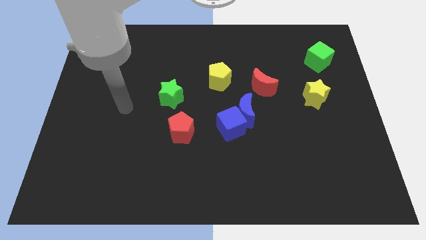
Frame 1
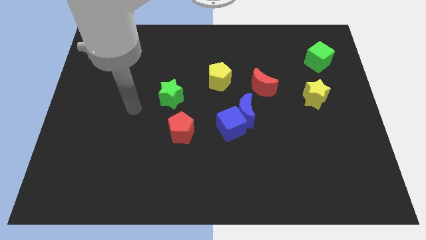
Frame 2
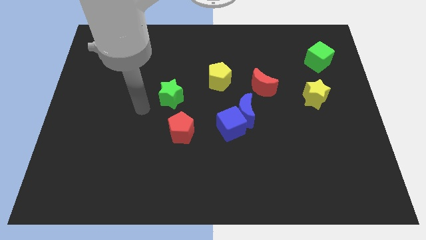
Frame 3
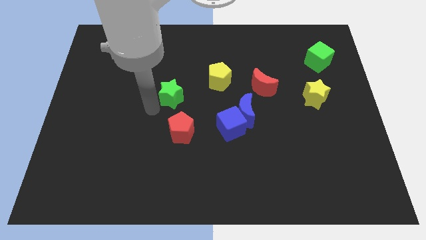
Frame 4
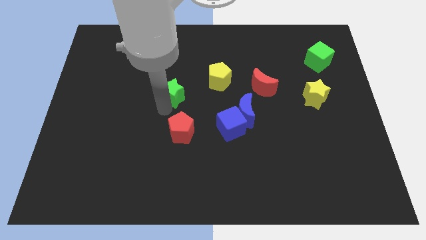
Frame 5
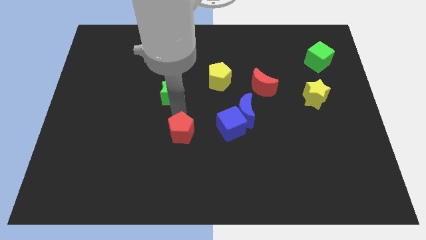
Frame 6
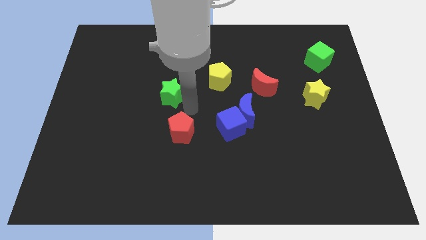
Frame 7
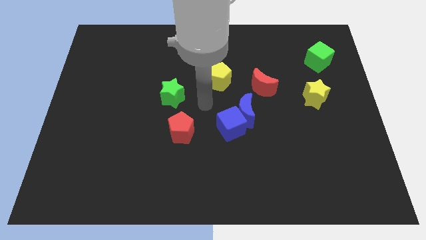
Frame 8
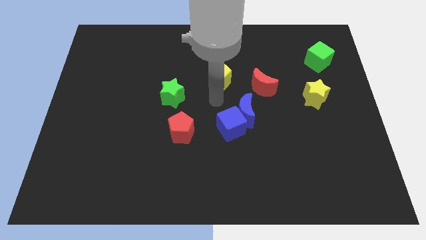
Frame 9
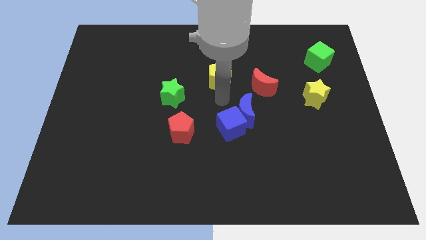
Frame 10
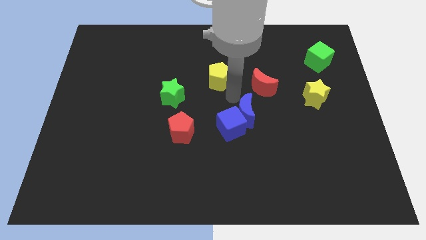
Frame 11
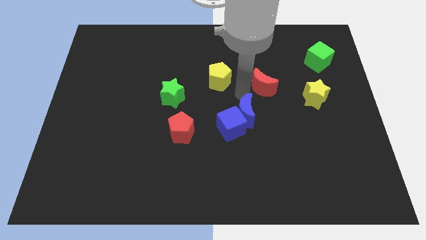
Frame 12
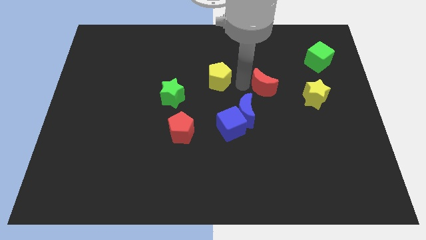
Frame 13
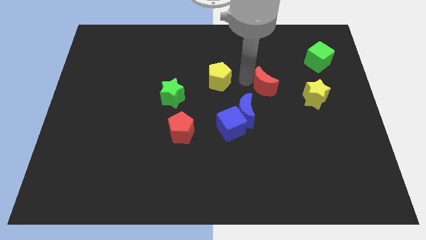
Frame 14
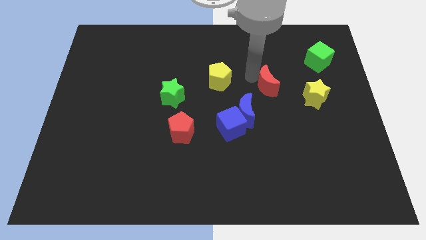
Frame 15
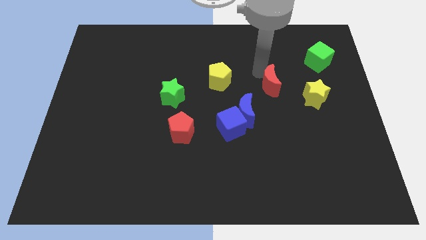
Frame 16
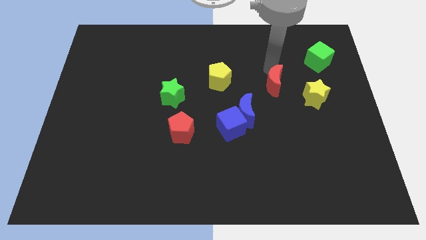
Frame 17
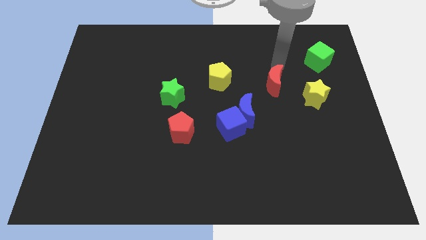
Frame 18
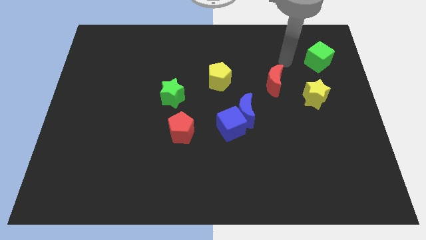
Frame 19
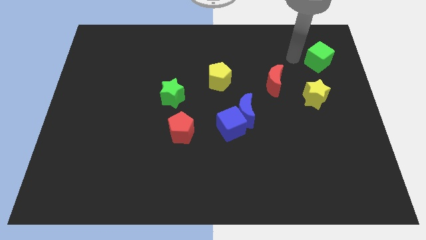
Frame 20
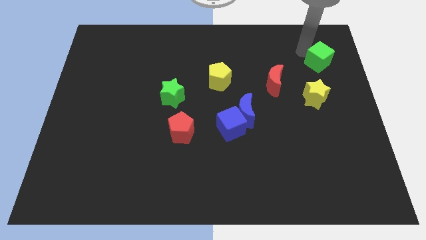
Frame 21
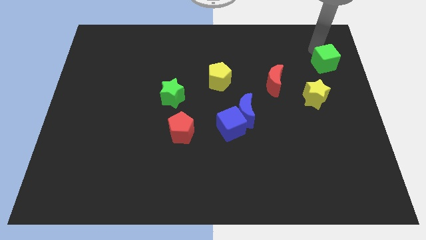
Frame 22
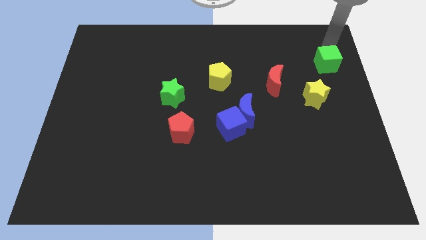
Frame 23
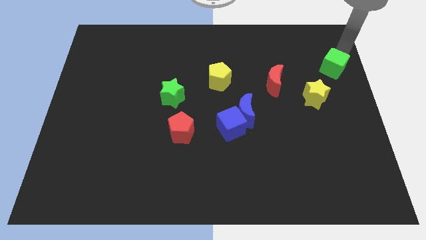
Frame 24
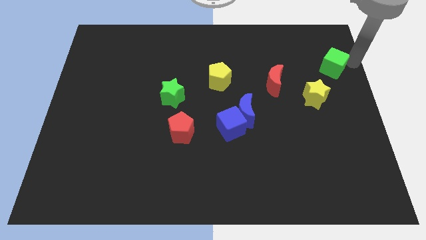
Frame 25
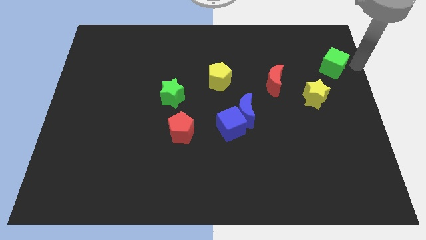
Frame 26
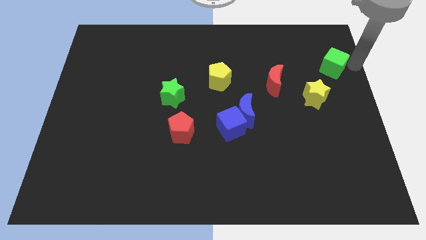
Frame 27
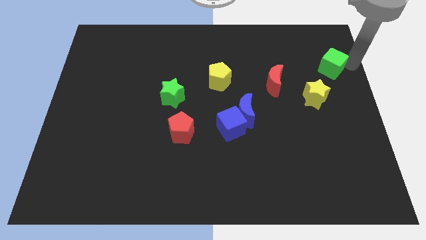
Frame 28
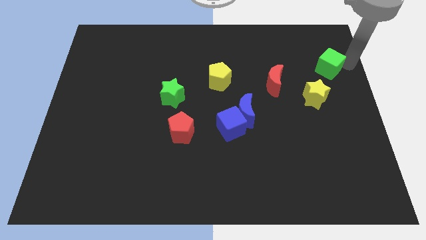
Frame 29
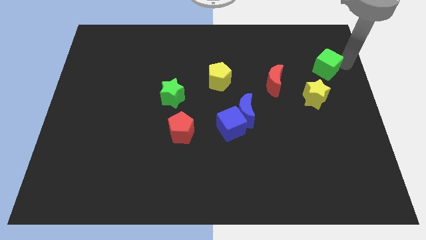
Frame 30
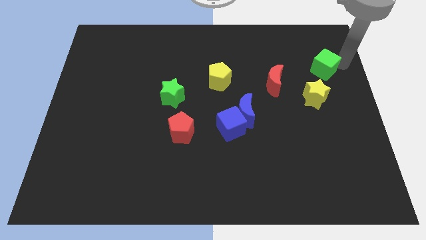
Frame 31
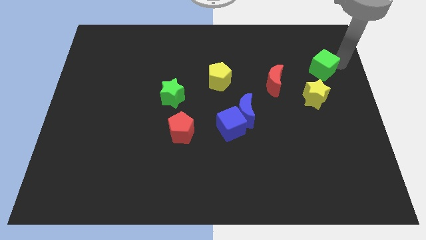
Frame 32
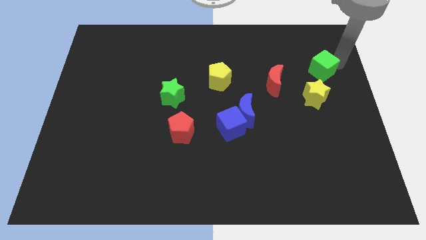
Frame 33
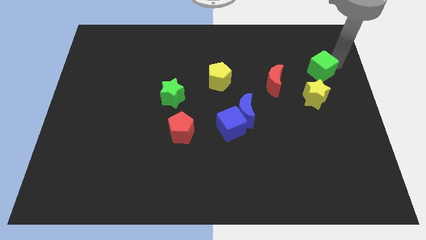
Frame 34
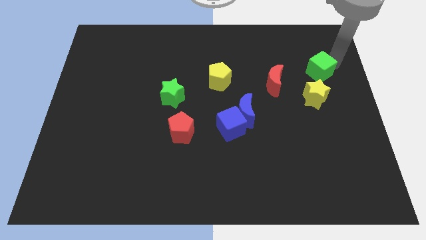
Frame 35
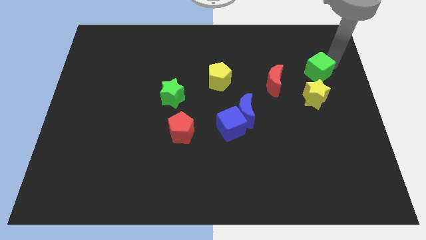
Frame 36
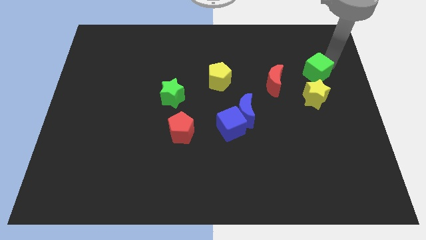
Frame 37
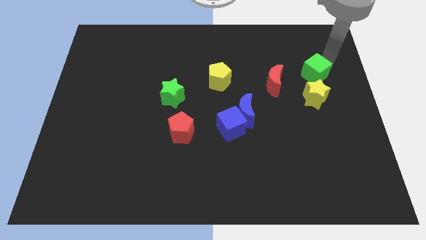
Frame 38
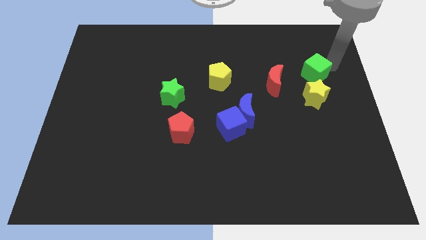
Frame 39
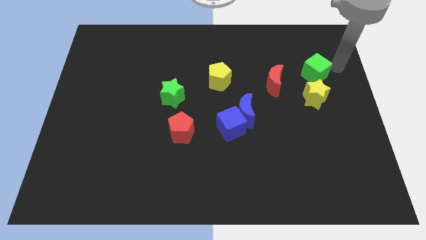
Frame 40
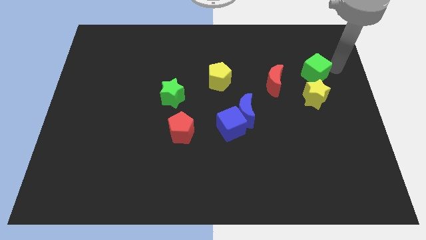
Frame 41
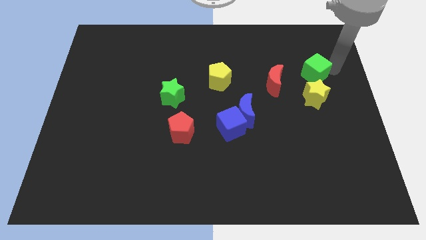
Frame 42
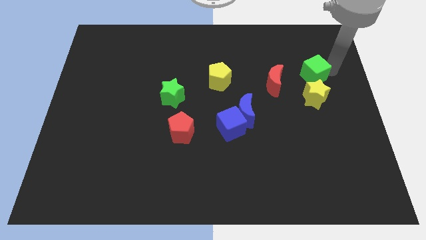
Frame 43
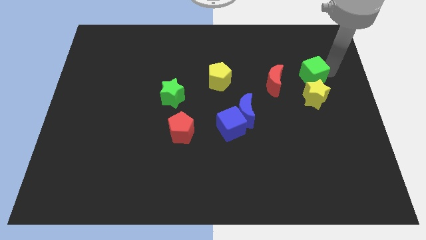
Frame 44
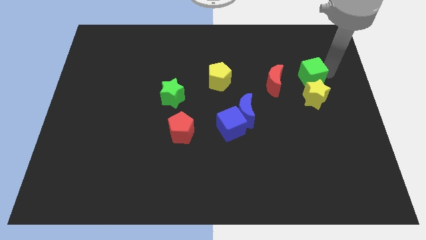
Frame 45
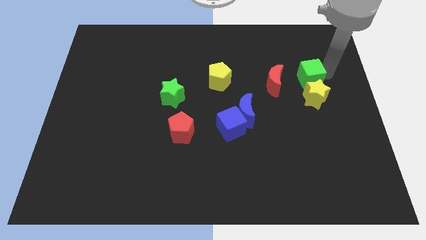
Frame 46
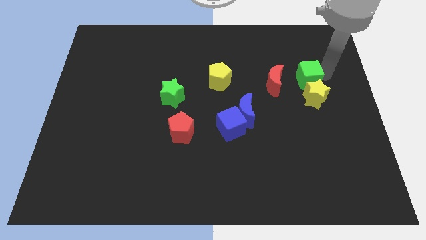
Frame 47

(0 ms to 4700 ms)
push the green cube a bit downwards and then left

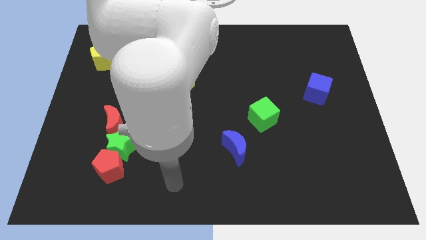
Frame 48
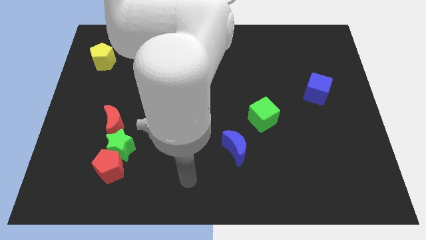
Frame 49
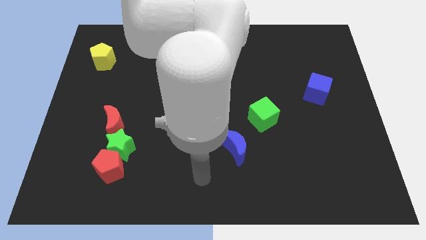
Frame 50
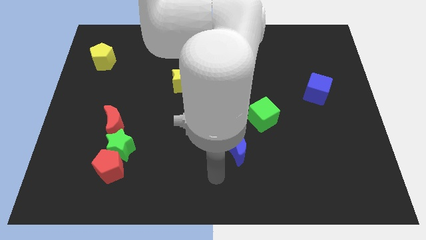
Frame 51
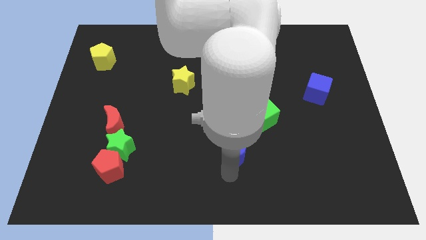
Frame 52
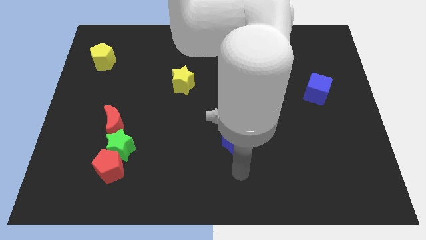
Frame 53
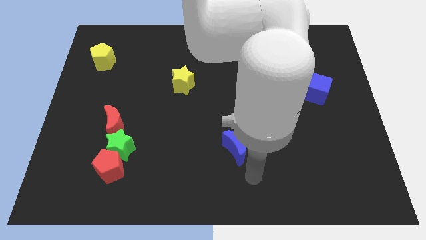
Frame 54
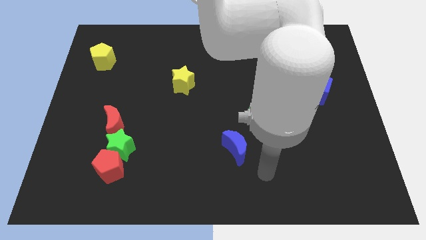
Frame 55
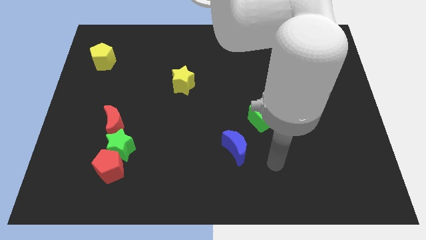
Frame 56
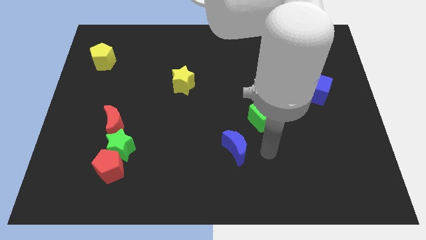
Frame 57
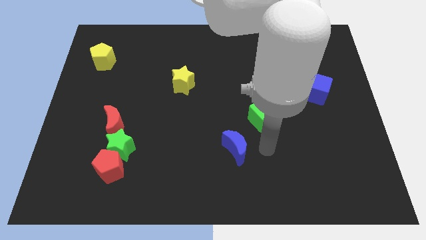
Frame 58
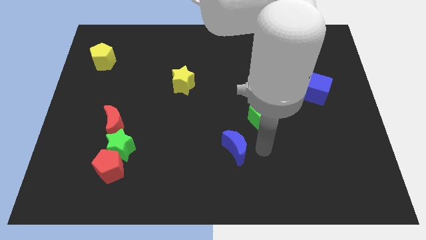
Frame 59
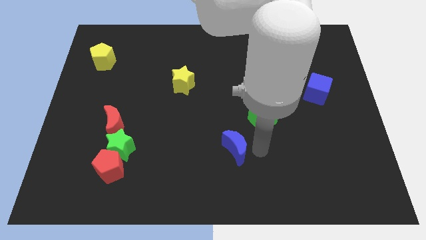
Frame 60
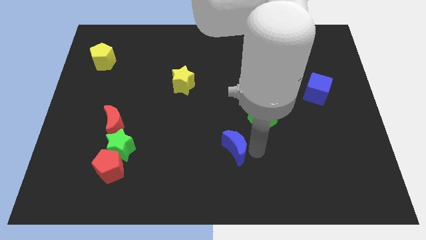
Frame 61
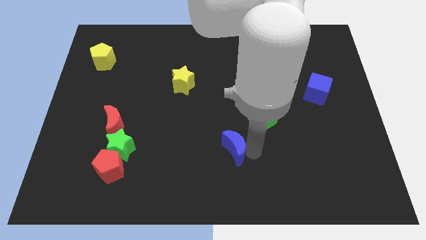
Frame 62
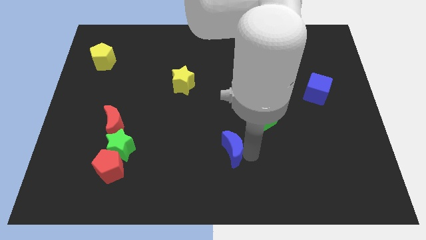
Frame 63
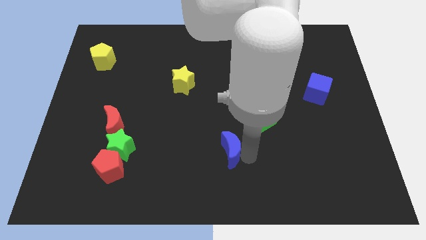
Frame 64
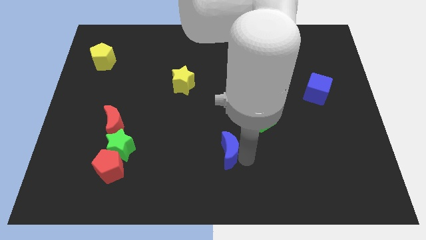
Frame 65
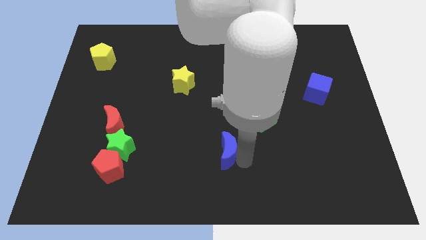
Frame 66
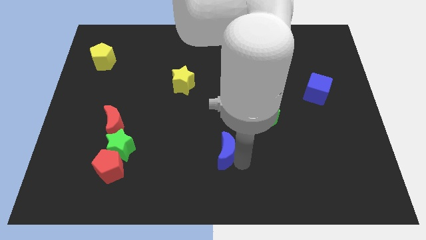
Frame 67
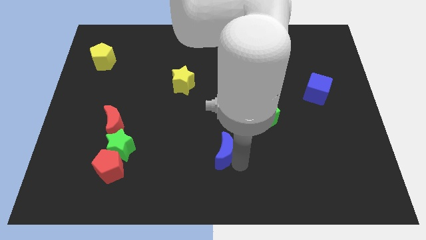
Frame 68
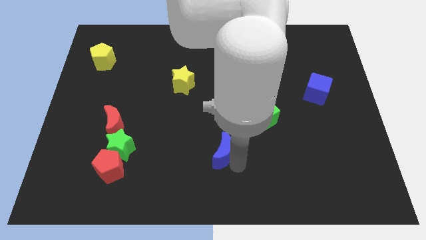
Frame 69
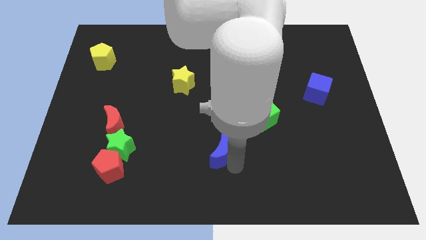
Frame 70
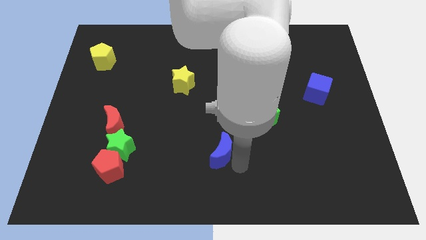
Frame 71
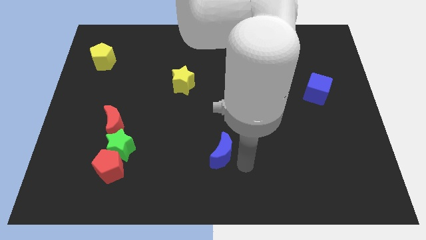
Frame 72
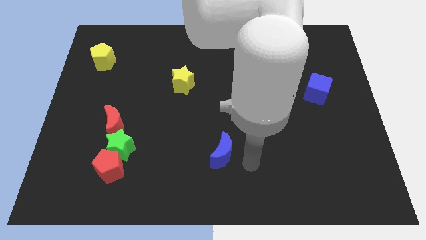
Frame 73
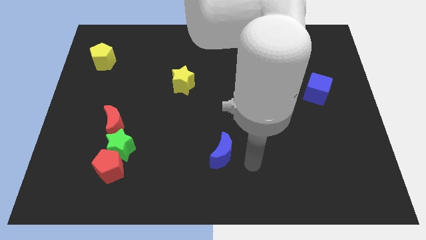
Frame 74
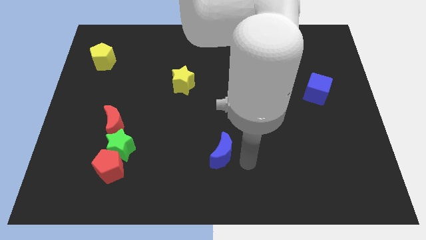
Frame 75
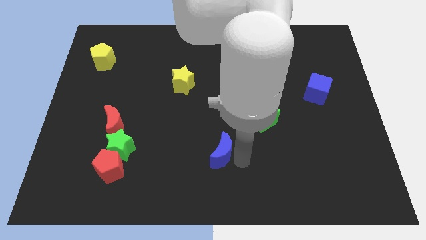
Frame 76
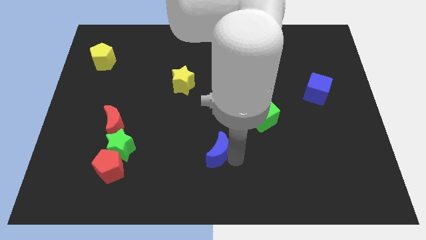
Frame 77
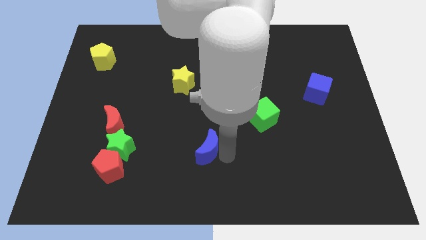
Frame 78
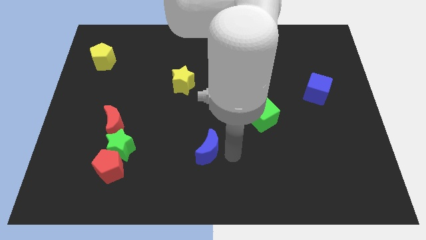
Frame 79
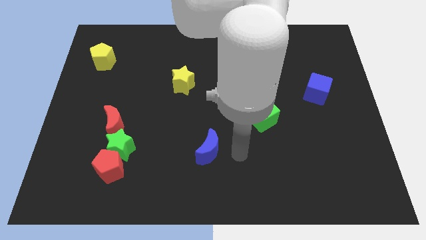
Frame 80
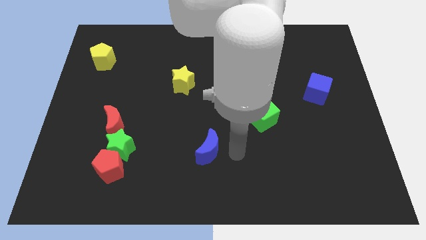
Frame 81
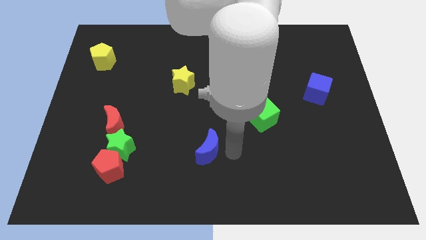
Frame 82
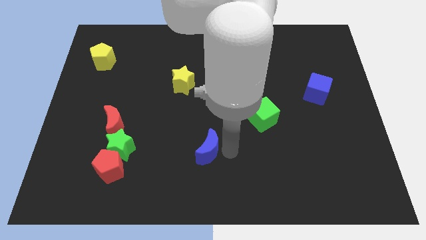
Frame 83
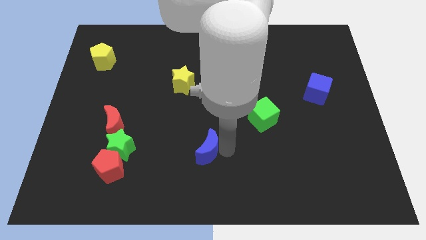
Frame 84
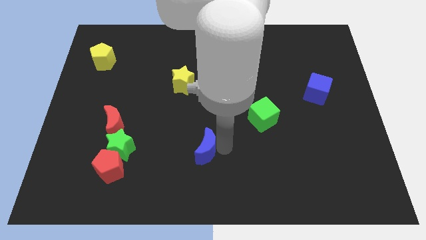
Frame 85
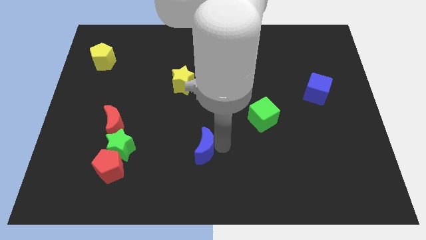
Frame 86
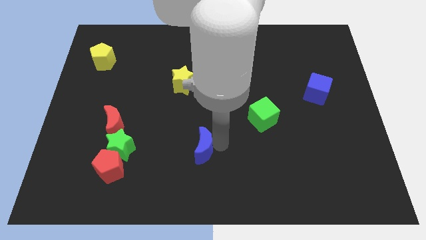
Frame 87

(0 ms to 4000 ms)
slightly push the blue moon to the left

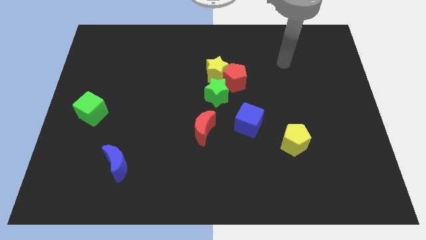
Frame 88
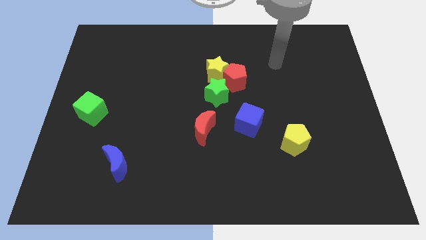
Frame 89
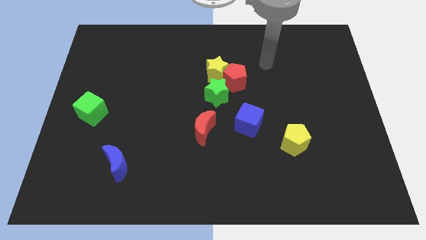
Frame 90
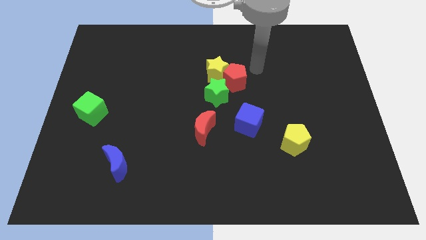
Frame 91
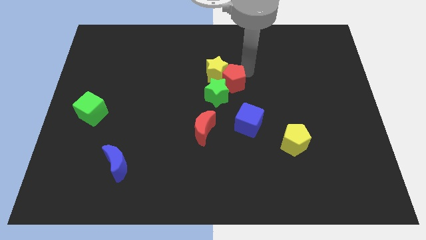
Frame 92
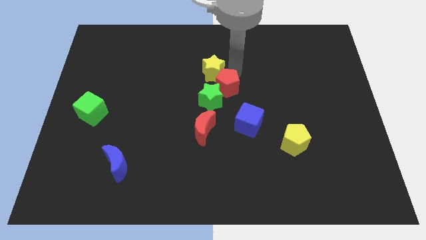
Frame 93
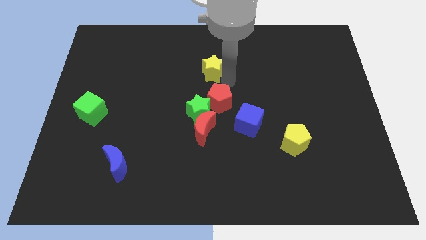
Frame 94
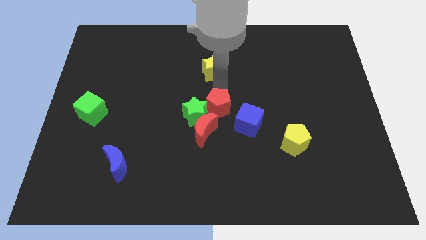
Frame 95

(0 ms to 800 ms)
slide the green star down and to the left slightly
